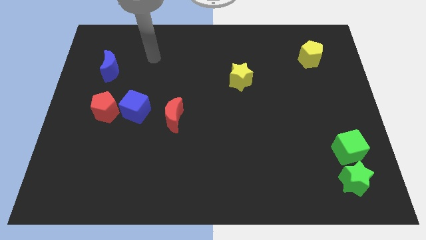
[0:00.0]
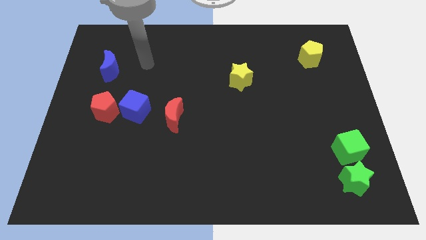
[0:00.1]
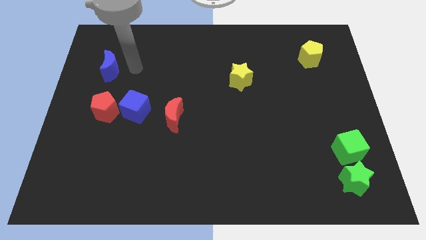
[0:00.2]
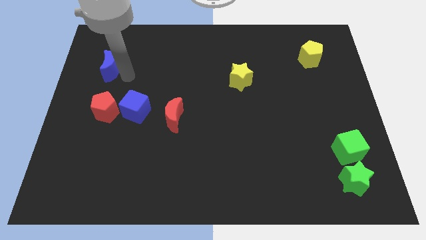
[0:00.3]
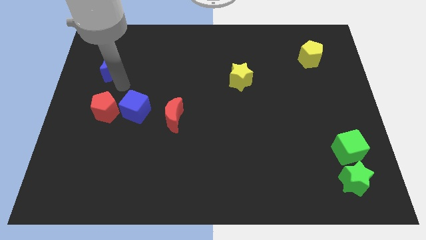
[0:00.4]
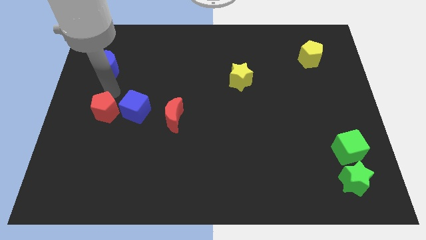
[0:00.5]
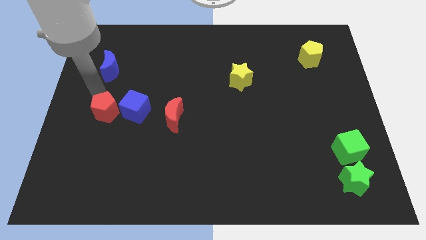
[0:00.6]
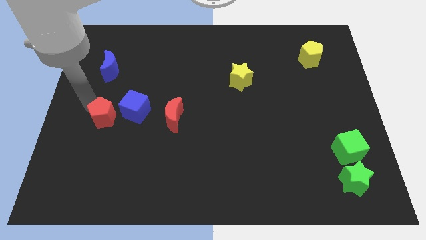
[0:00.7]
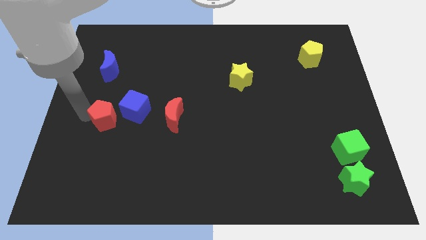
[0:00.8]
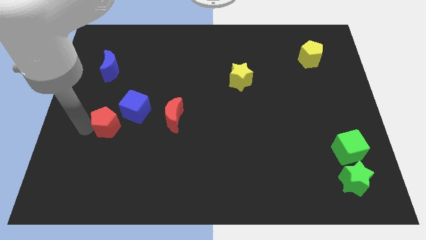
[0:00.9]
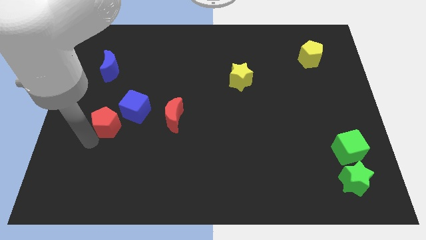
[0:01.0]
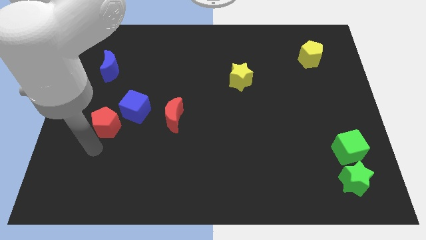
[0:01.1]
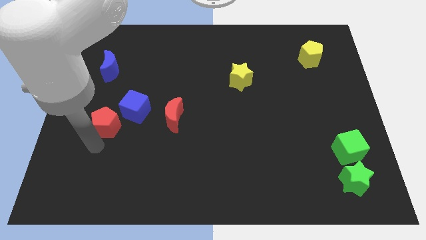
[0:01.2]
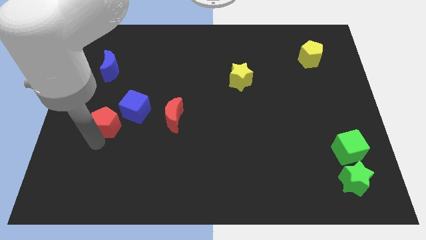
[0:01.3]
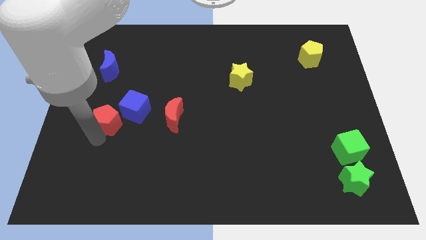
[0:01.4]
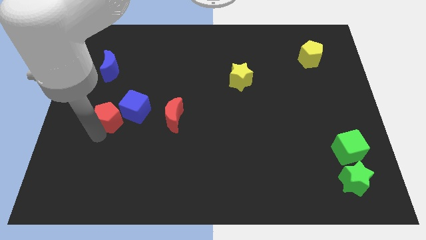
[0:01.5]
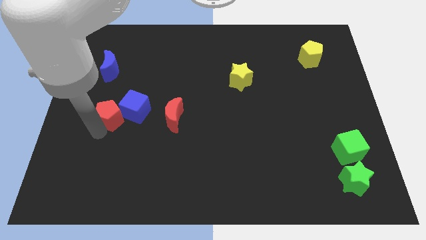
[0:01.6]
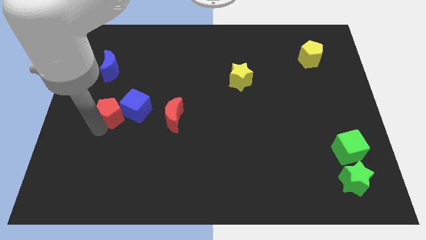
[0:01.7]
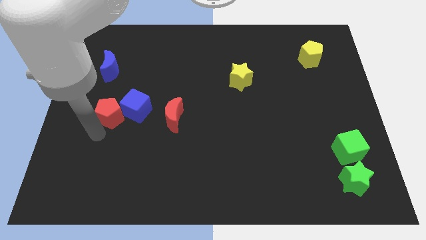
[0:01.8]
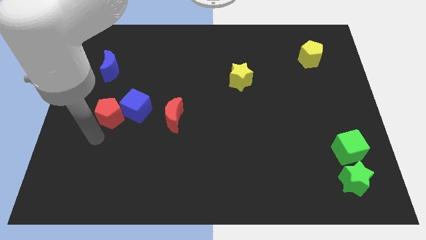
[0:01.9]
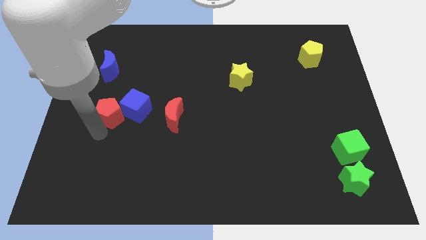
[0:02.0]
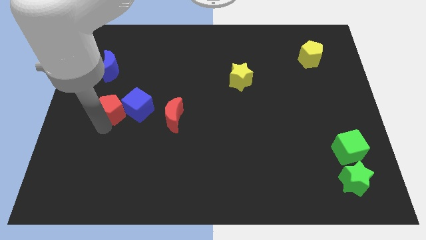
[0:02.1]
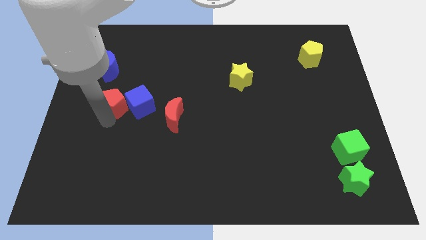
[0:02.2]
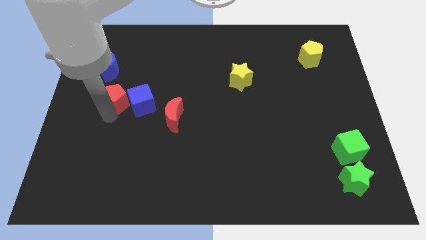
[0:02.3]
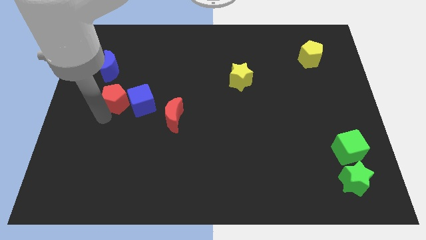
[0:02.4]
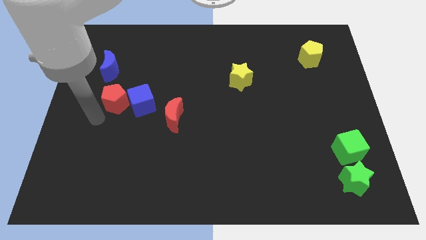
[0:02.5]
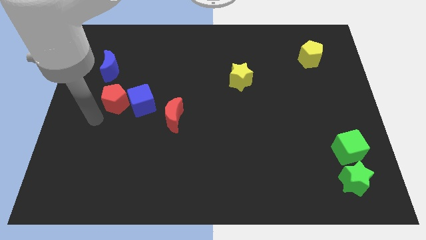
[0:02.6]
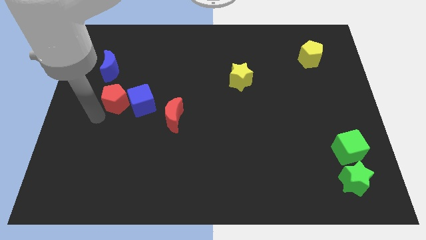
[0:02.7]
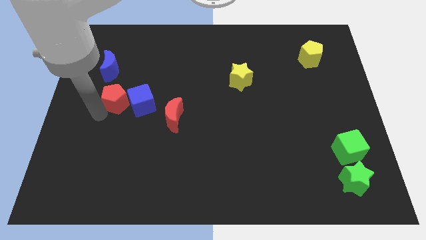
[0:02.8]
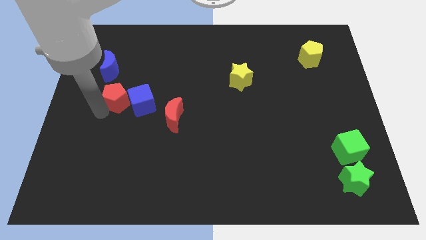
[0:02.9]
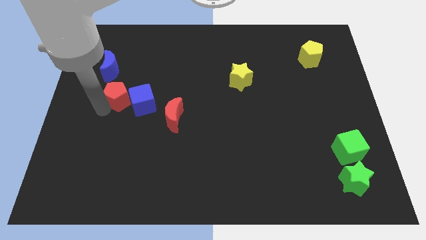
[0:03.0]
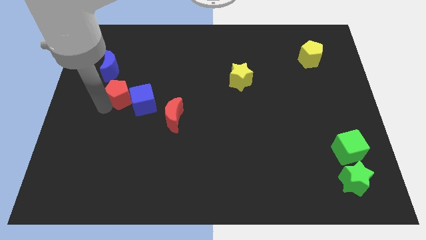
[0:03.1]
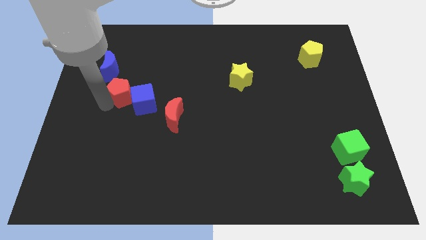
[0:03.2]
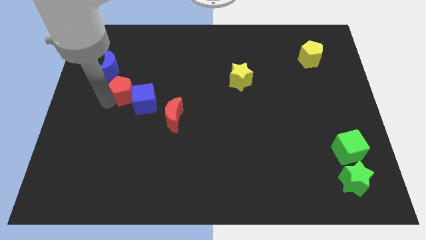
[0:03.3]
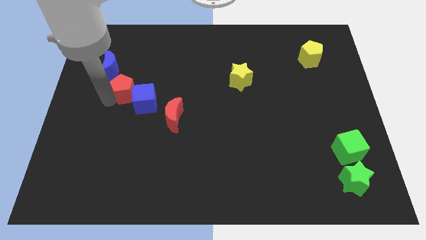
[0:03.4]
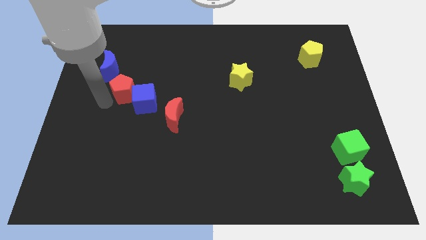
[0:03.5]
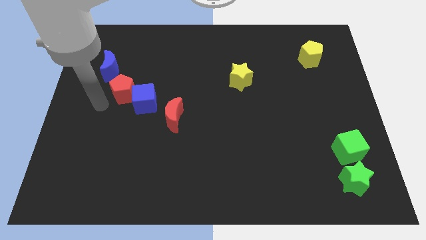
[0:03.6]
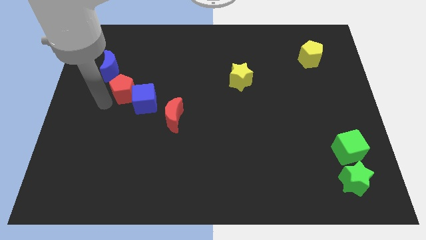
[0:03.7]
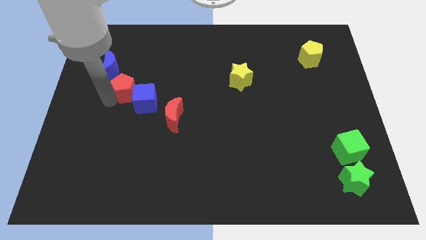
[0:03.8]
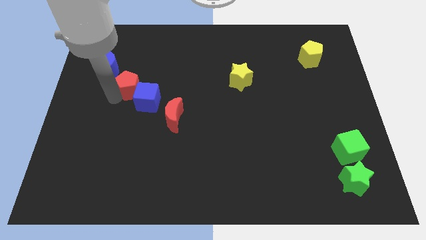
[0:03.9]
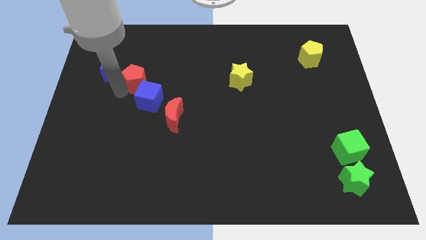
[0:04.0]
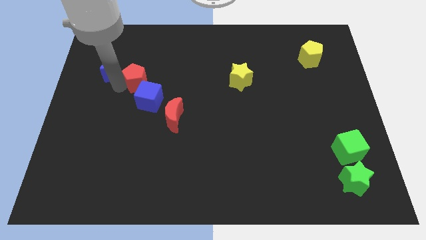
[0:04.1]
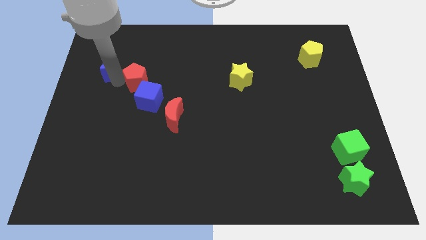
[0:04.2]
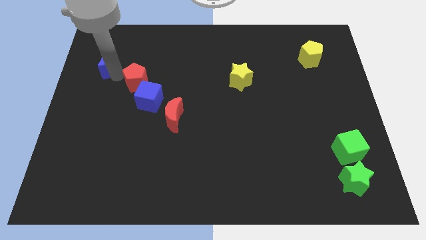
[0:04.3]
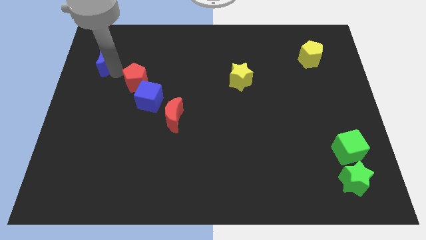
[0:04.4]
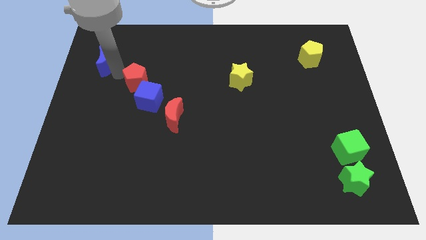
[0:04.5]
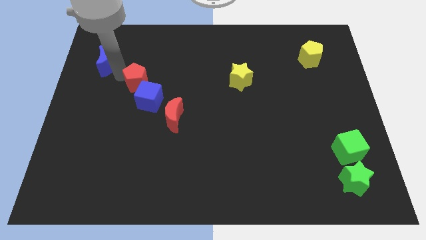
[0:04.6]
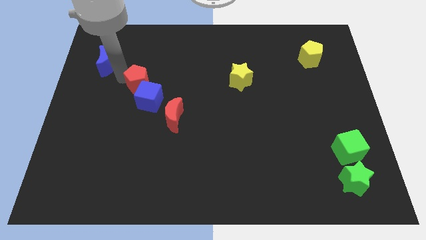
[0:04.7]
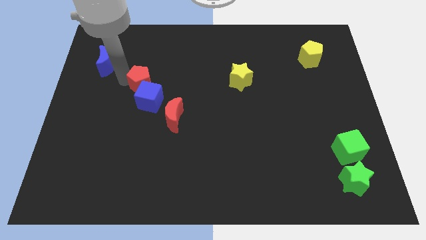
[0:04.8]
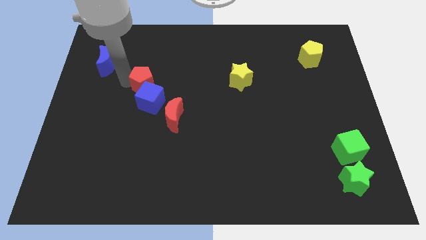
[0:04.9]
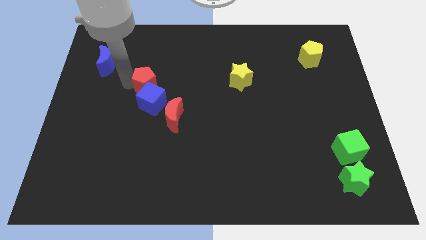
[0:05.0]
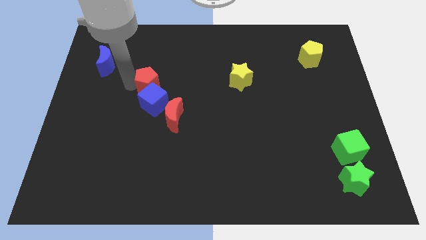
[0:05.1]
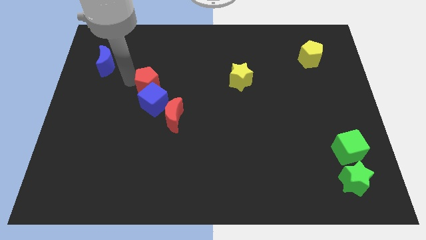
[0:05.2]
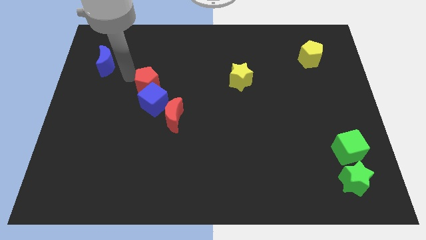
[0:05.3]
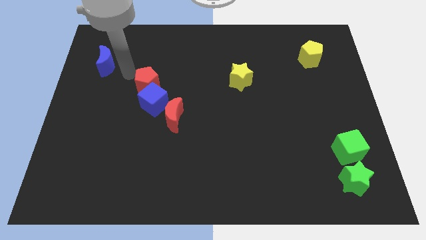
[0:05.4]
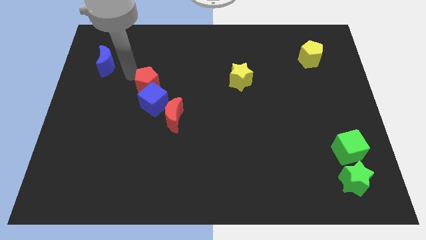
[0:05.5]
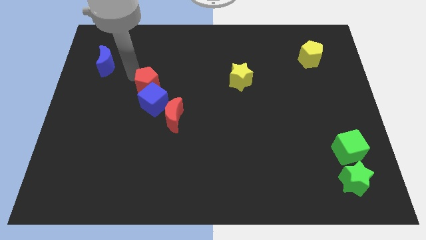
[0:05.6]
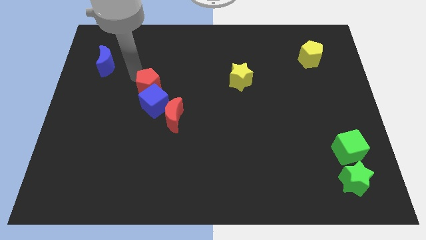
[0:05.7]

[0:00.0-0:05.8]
push the red pentagon to the right a little

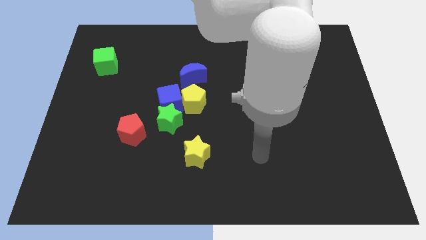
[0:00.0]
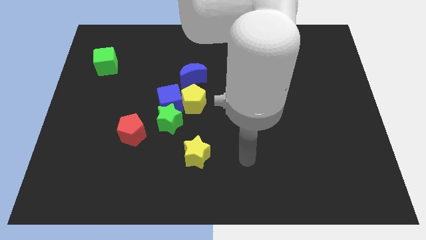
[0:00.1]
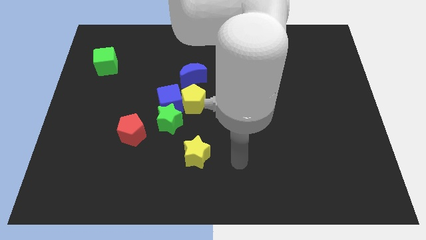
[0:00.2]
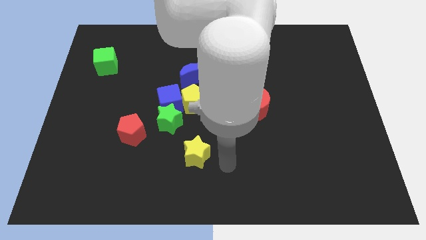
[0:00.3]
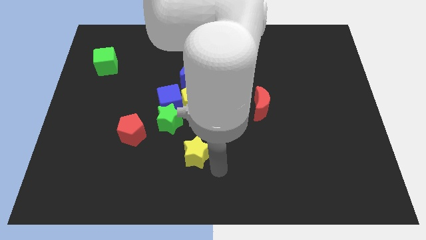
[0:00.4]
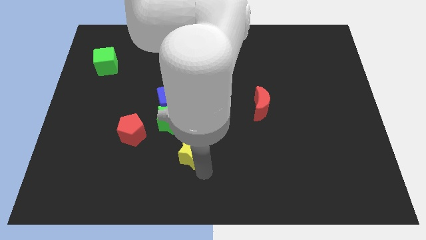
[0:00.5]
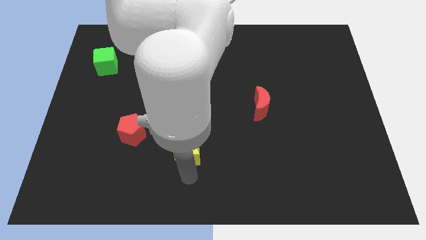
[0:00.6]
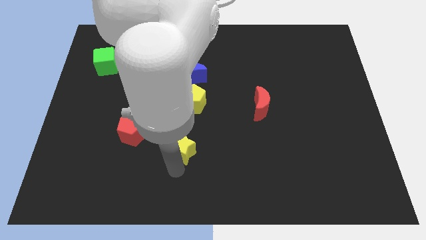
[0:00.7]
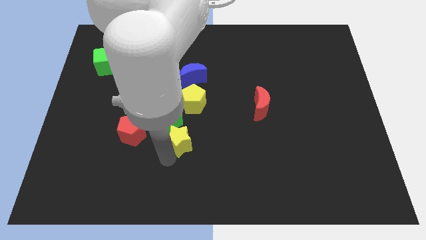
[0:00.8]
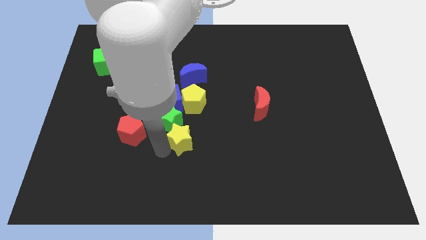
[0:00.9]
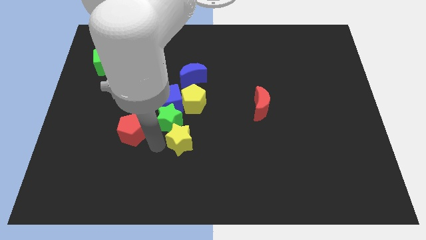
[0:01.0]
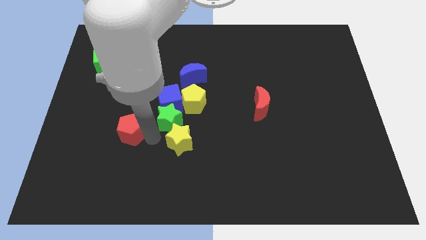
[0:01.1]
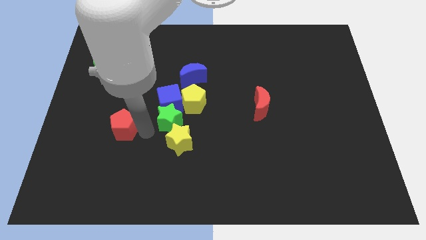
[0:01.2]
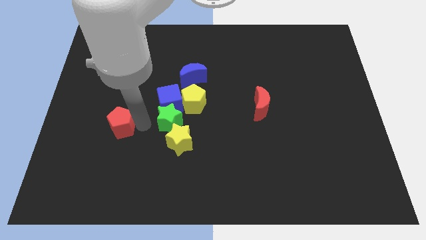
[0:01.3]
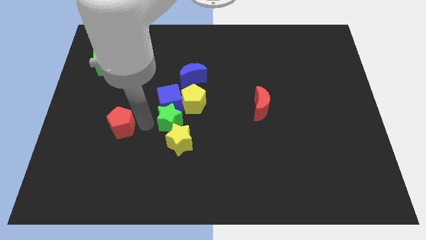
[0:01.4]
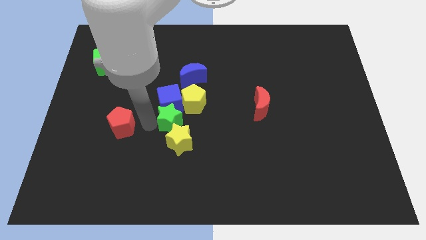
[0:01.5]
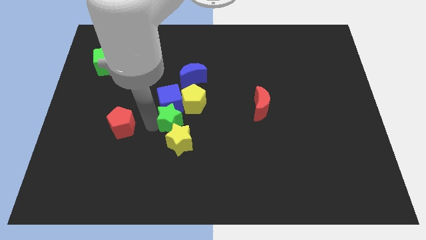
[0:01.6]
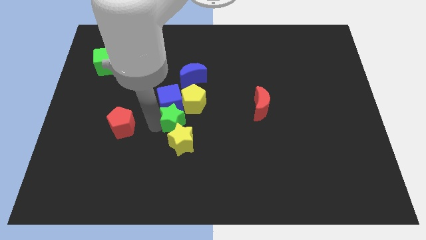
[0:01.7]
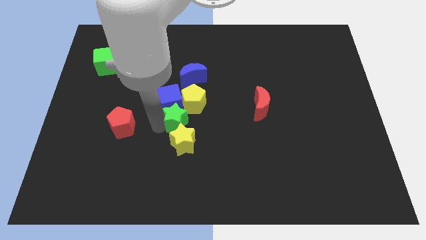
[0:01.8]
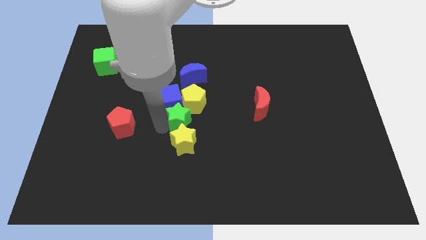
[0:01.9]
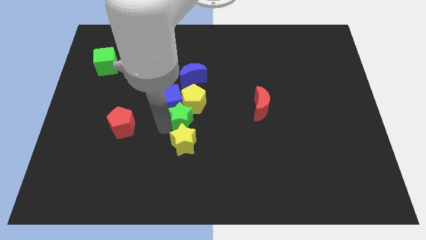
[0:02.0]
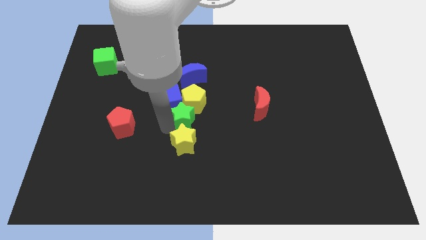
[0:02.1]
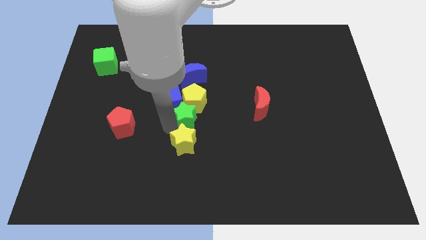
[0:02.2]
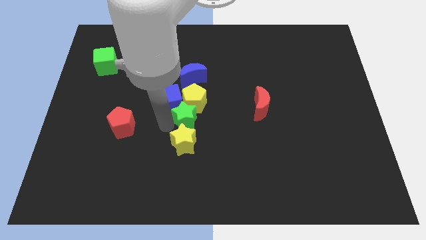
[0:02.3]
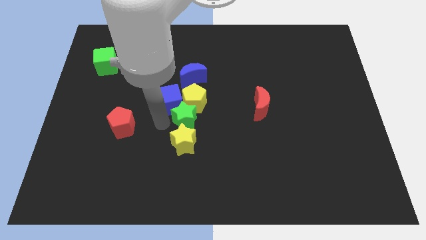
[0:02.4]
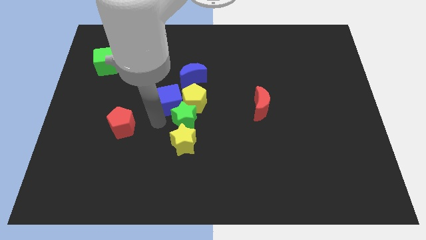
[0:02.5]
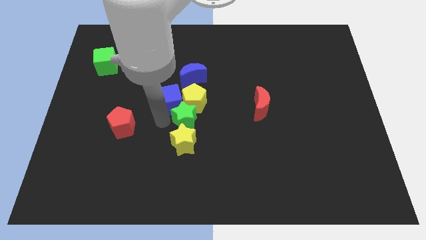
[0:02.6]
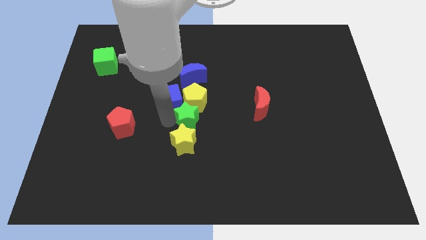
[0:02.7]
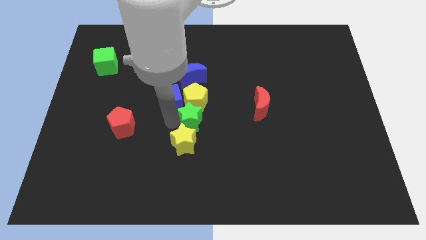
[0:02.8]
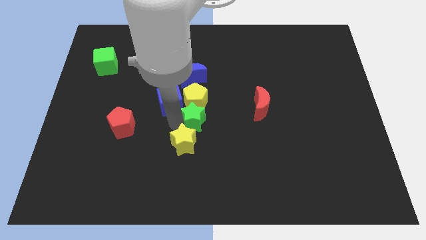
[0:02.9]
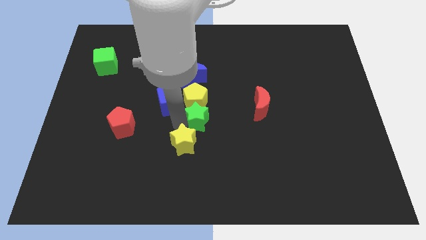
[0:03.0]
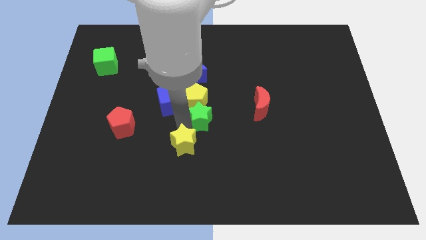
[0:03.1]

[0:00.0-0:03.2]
slide the green star a little bit right
